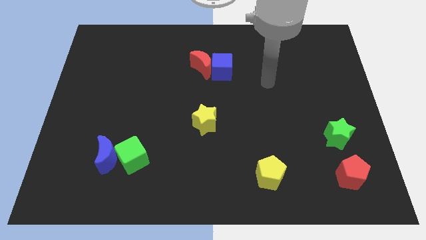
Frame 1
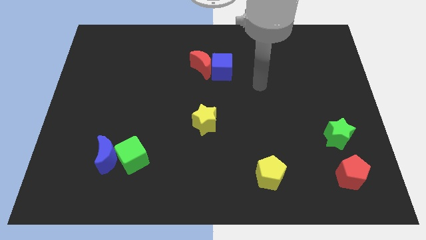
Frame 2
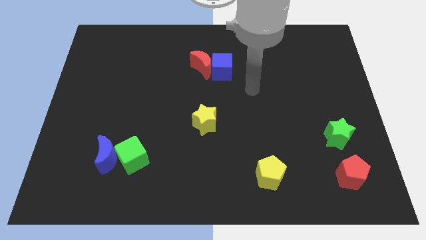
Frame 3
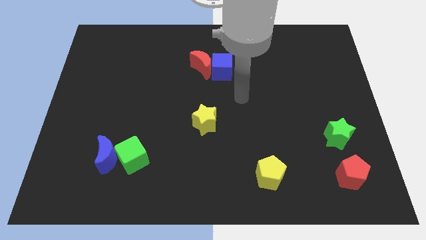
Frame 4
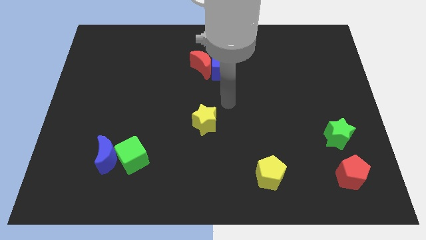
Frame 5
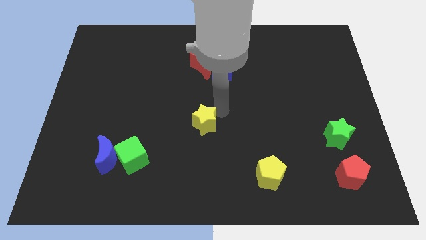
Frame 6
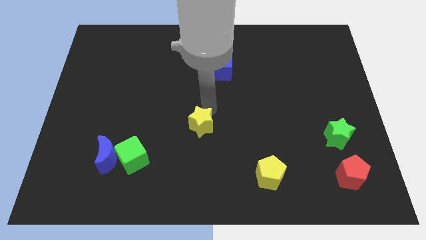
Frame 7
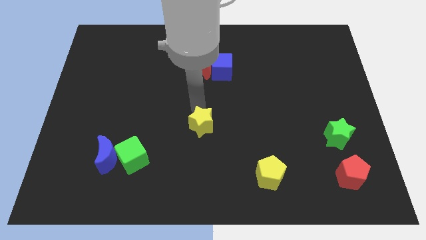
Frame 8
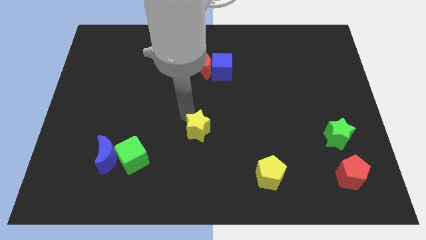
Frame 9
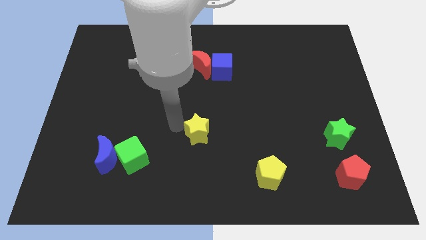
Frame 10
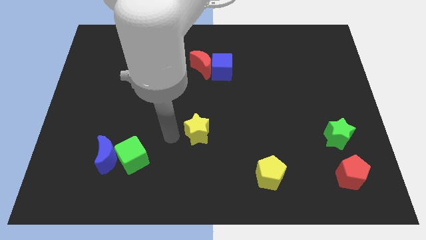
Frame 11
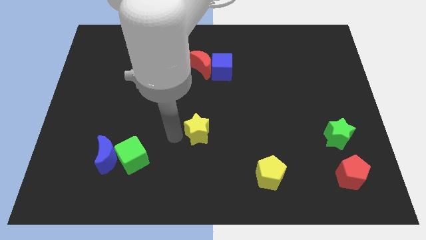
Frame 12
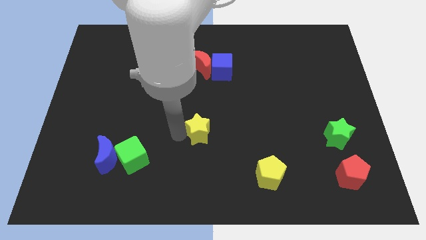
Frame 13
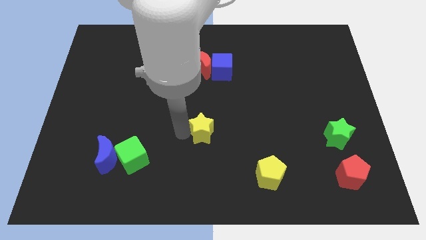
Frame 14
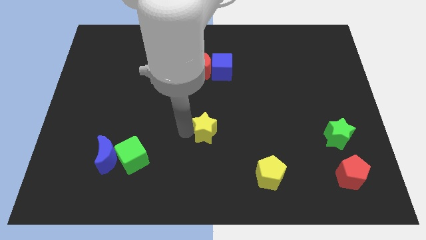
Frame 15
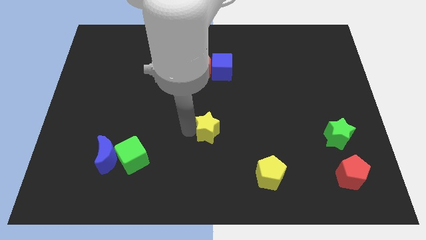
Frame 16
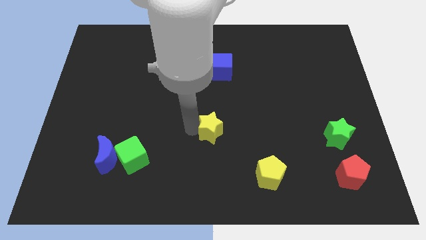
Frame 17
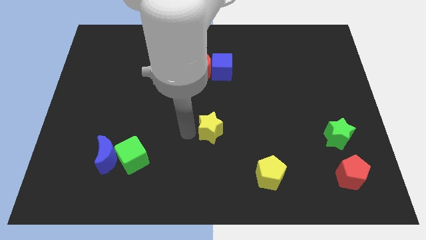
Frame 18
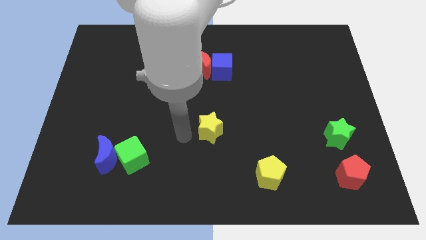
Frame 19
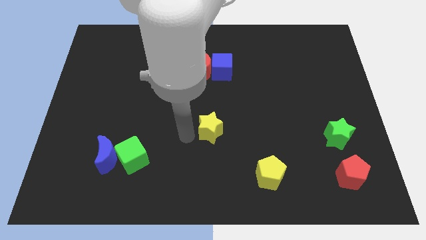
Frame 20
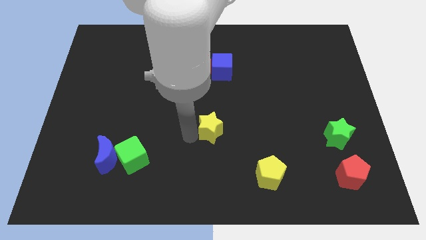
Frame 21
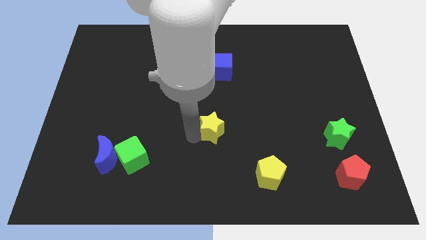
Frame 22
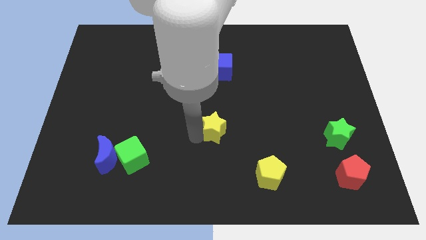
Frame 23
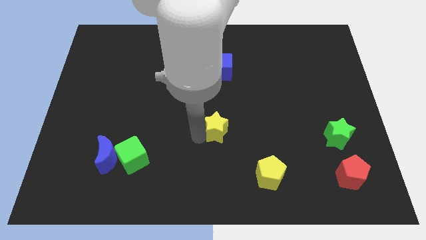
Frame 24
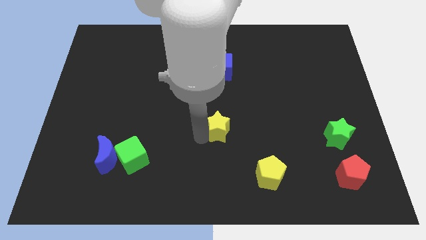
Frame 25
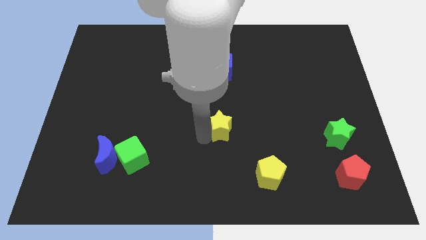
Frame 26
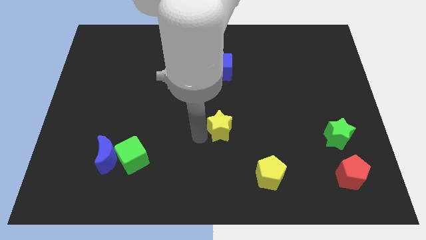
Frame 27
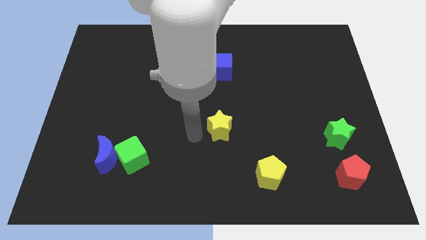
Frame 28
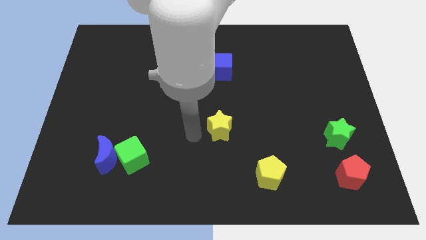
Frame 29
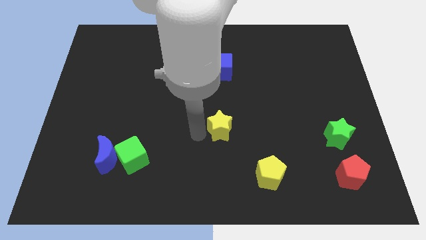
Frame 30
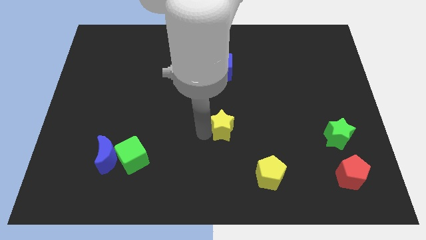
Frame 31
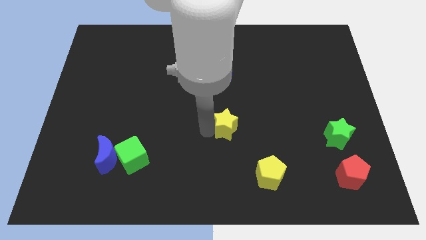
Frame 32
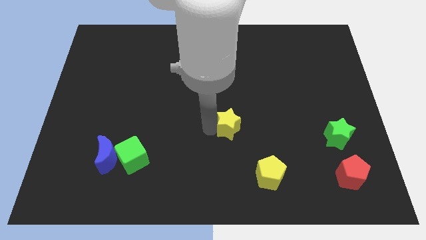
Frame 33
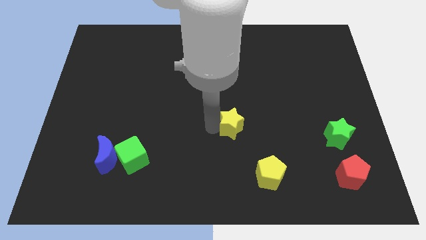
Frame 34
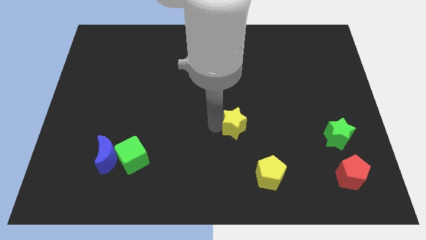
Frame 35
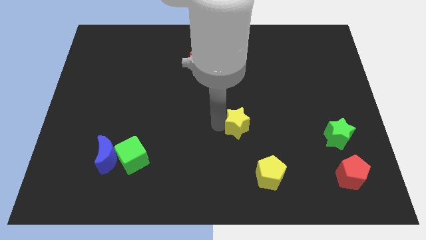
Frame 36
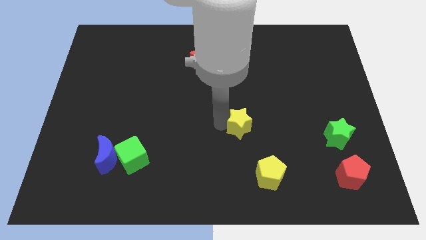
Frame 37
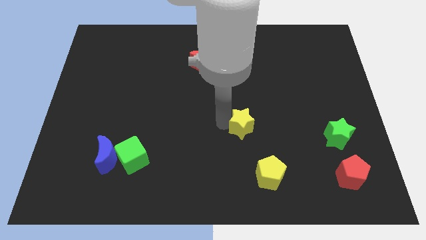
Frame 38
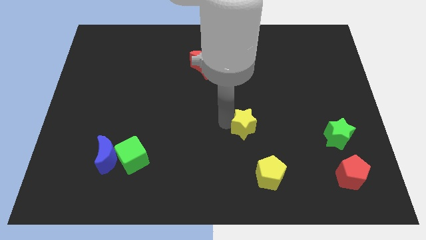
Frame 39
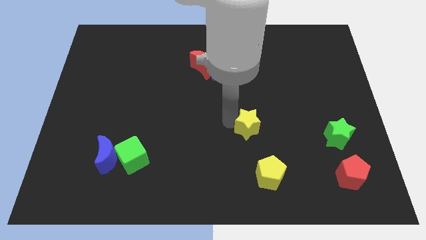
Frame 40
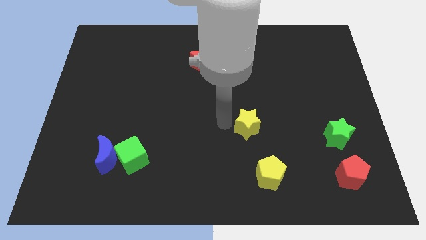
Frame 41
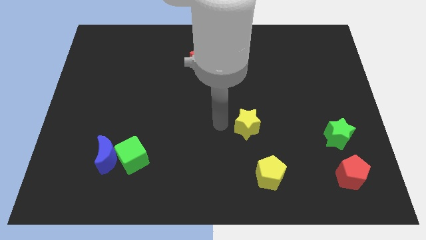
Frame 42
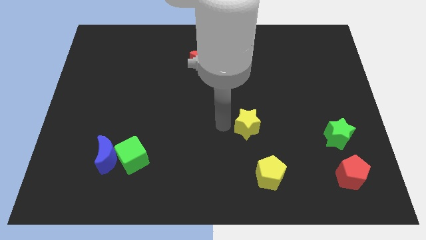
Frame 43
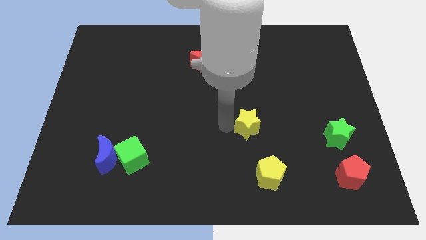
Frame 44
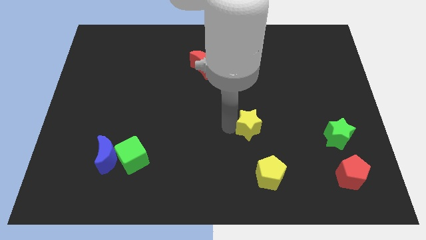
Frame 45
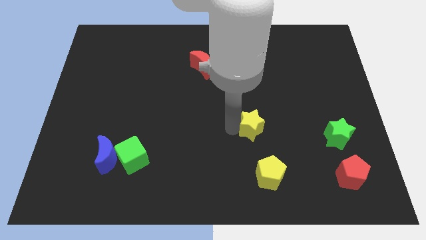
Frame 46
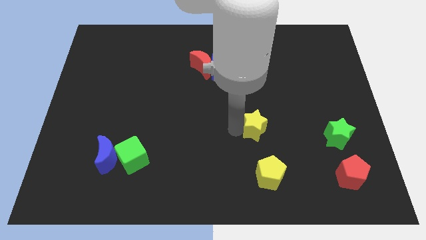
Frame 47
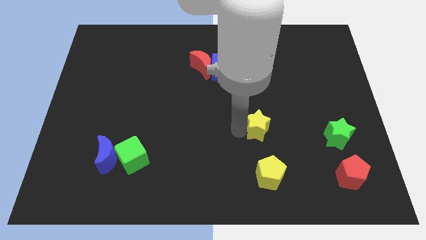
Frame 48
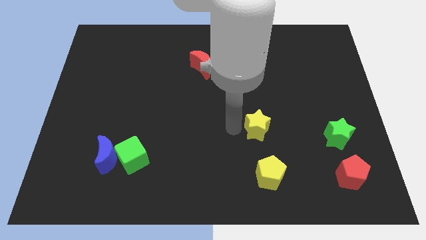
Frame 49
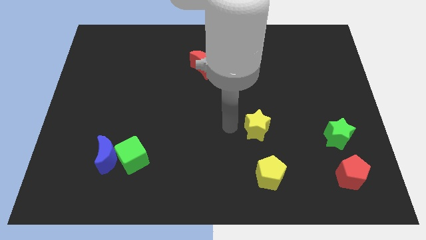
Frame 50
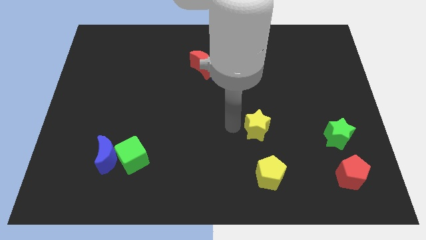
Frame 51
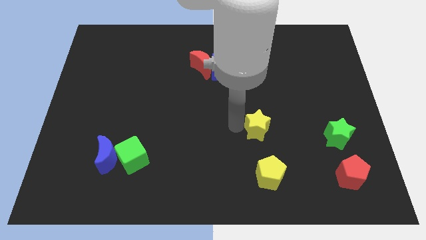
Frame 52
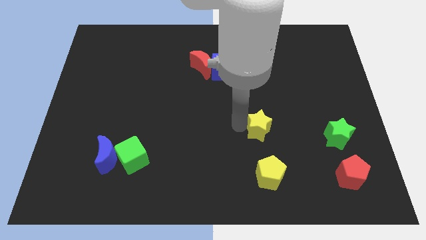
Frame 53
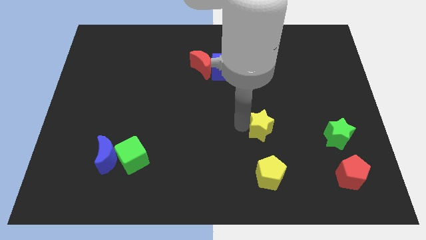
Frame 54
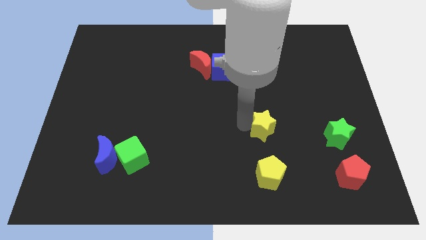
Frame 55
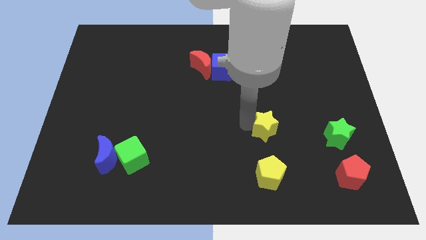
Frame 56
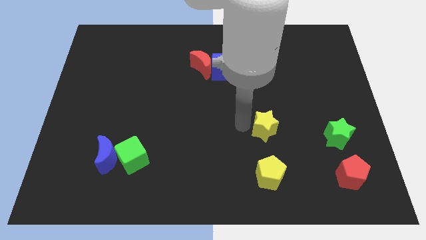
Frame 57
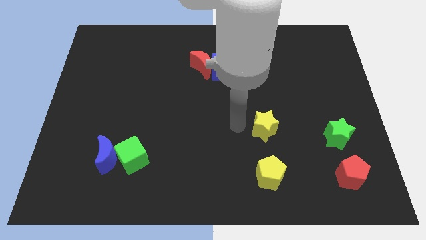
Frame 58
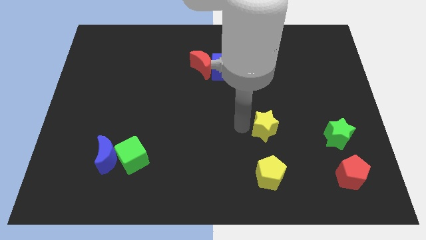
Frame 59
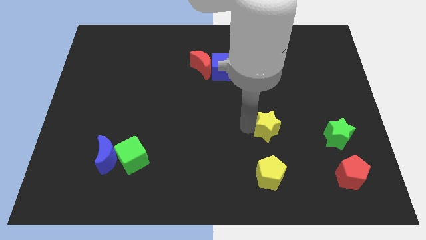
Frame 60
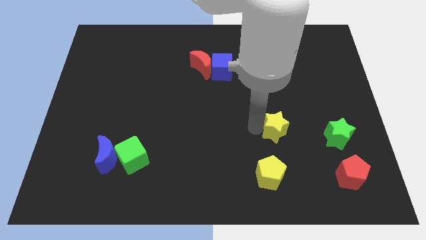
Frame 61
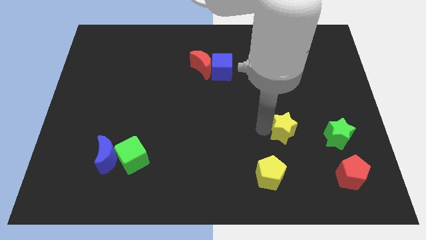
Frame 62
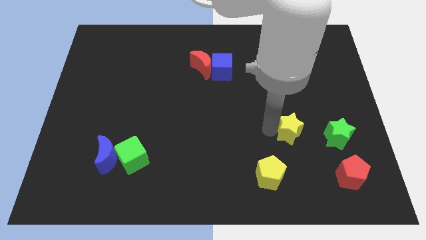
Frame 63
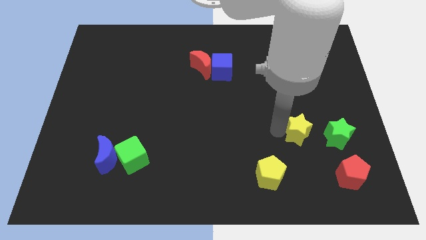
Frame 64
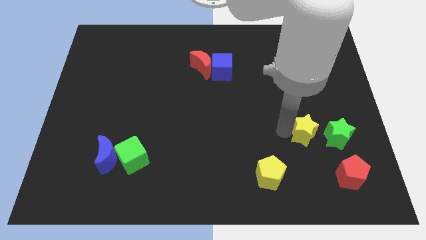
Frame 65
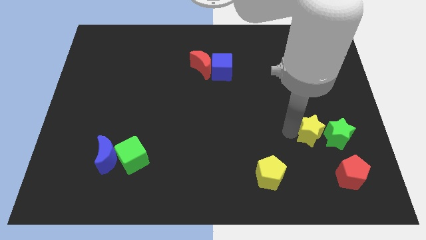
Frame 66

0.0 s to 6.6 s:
move the yellow star to the green star

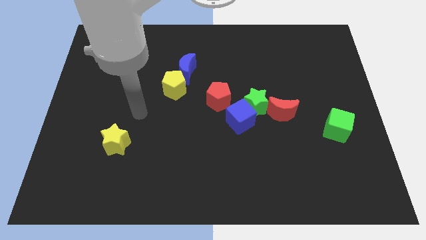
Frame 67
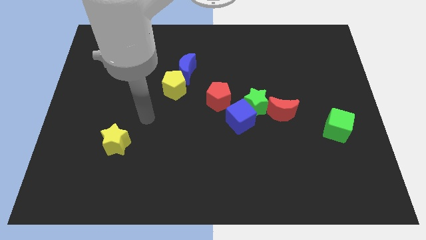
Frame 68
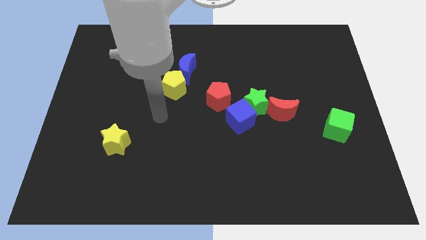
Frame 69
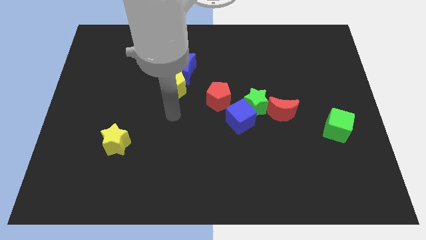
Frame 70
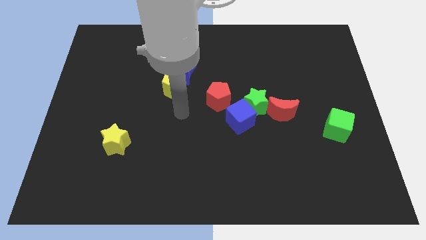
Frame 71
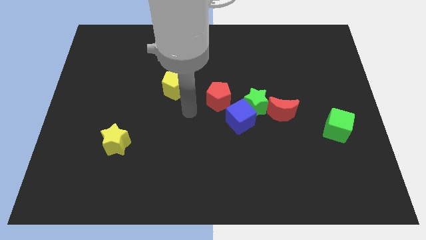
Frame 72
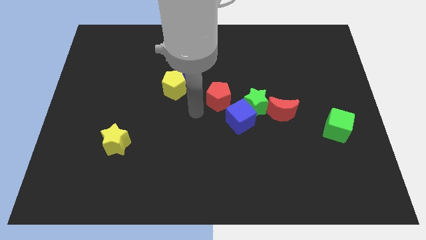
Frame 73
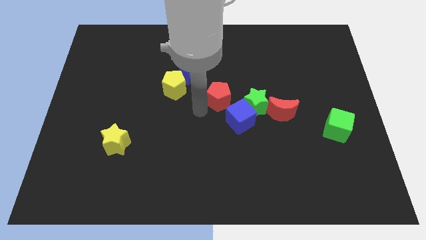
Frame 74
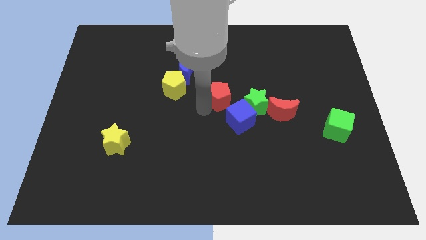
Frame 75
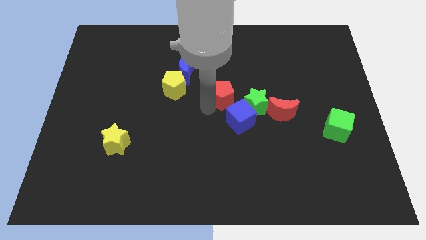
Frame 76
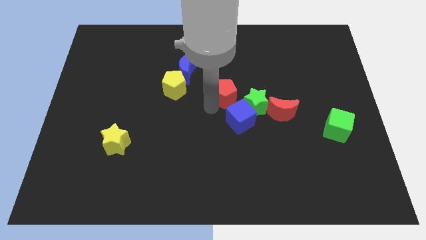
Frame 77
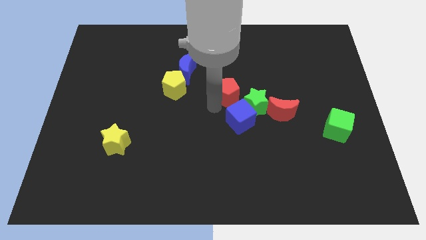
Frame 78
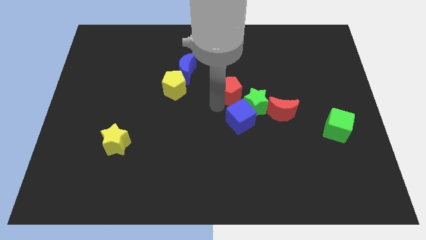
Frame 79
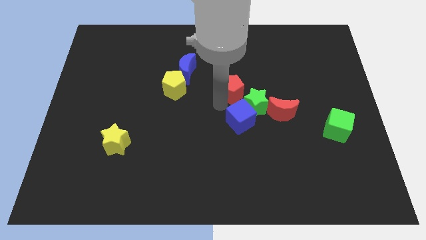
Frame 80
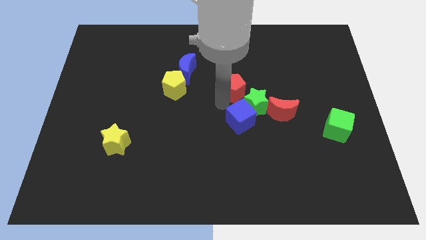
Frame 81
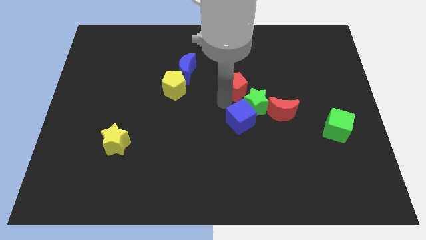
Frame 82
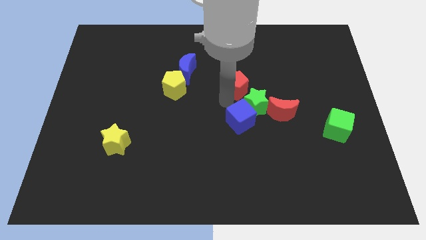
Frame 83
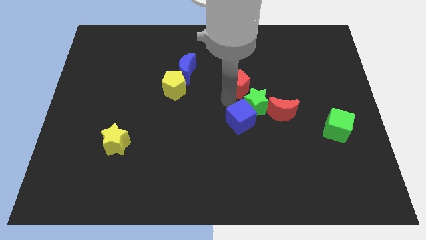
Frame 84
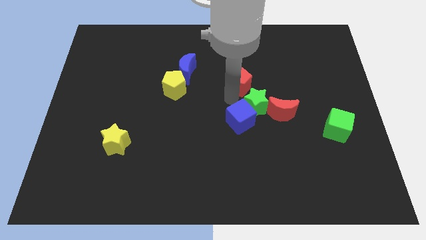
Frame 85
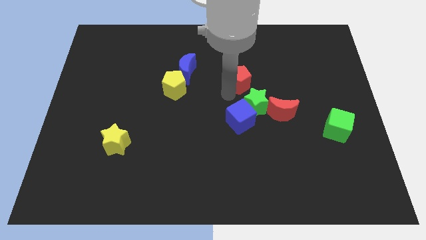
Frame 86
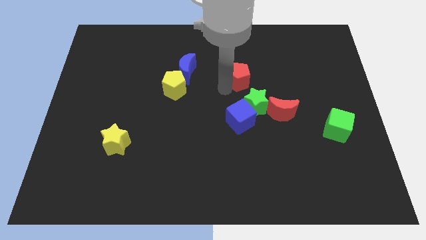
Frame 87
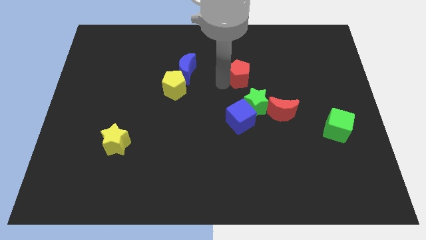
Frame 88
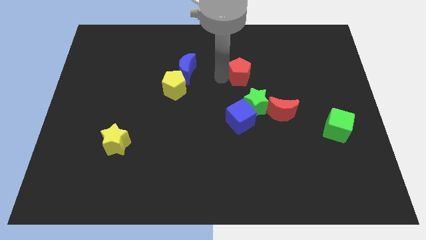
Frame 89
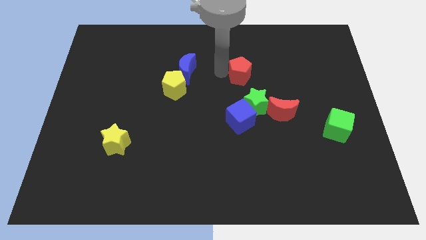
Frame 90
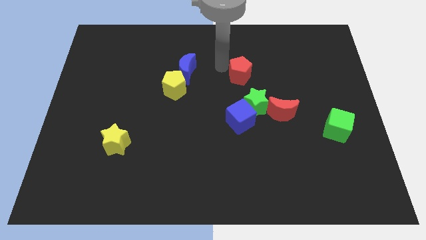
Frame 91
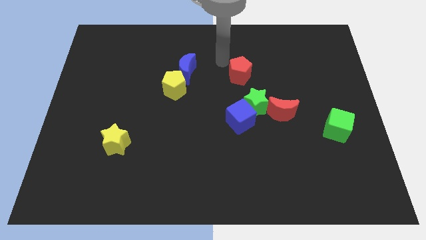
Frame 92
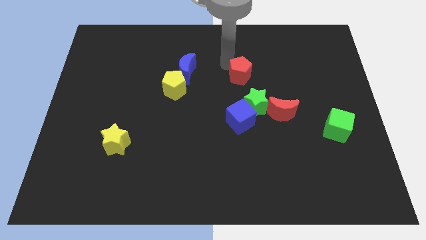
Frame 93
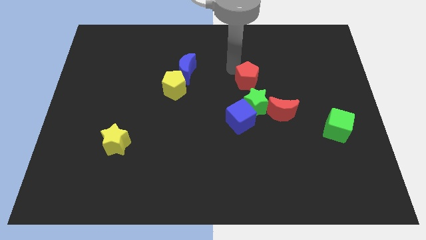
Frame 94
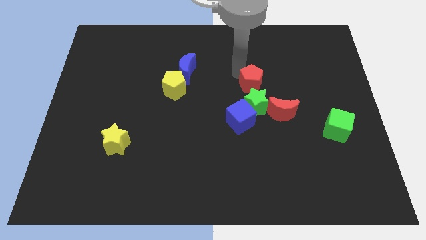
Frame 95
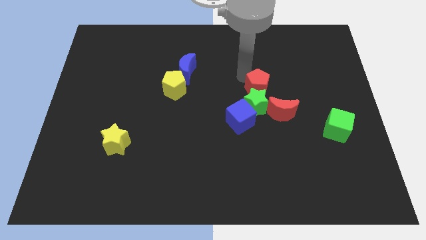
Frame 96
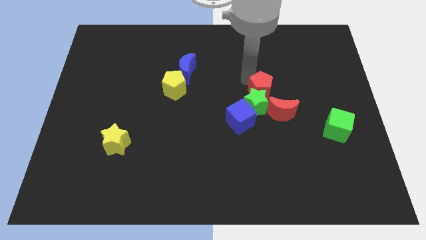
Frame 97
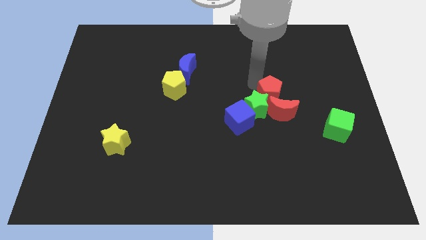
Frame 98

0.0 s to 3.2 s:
put the red pentagon next to the red moon
